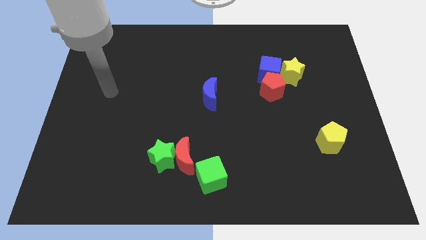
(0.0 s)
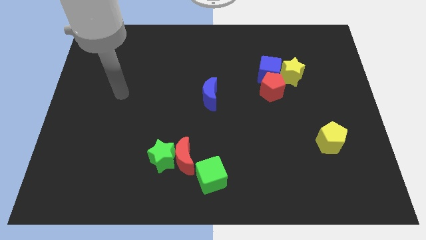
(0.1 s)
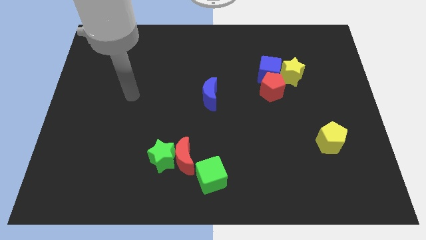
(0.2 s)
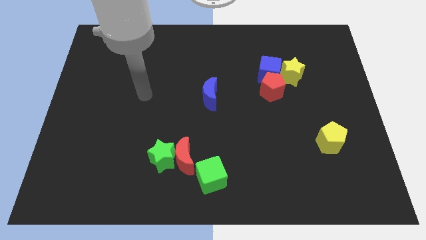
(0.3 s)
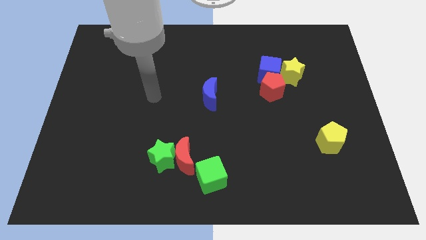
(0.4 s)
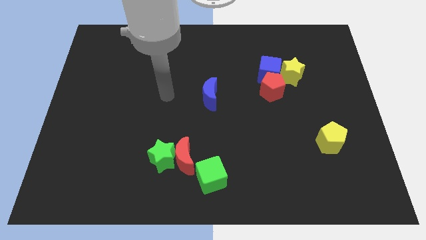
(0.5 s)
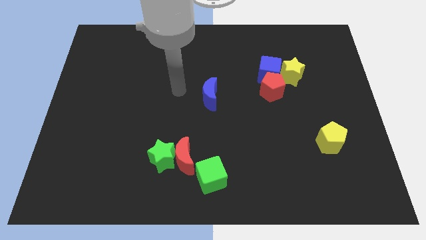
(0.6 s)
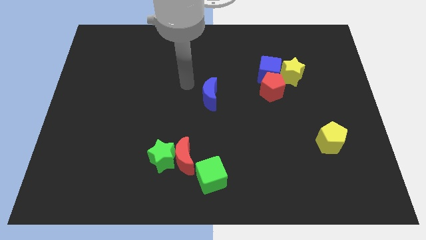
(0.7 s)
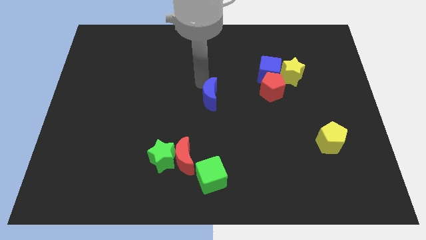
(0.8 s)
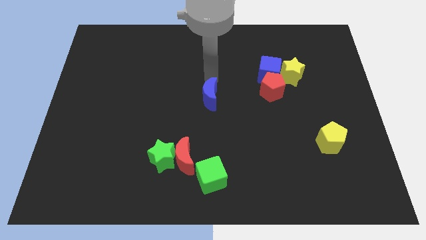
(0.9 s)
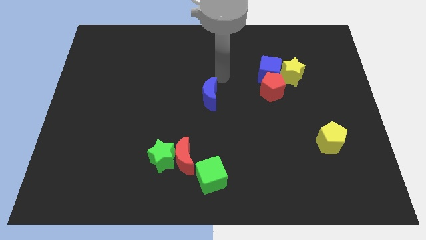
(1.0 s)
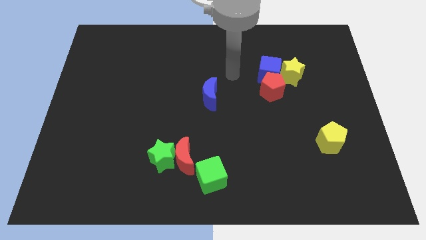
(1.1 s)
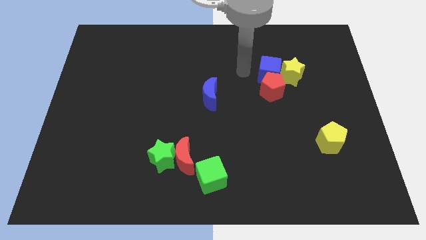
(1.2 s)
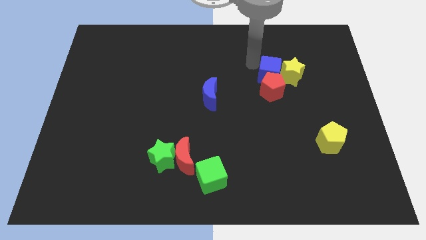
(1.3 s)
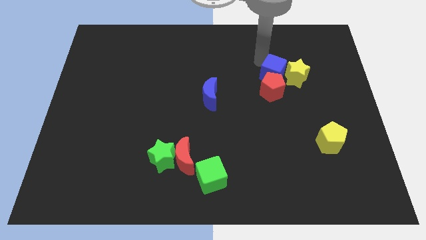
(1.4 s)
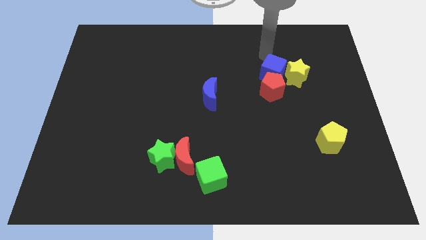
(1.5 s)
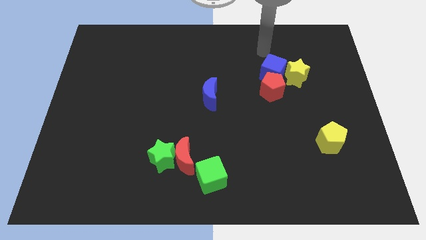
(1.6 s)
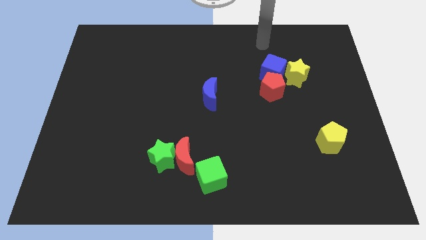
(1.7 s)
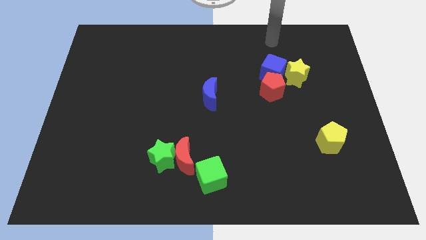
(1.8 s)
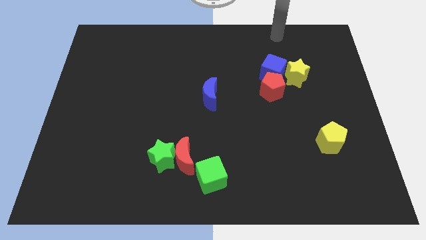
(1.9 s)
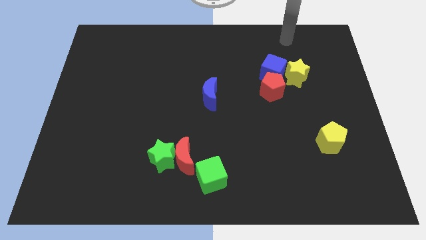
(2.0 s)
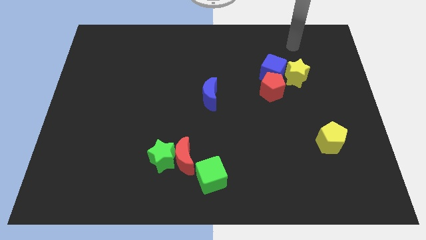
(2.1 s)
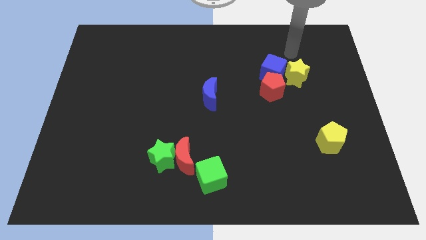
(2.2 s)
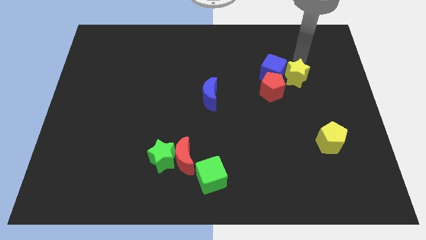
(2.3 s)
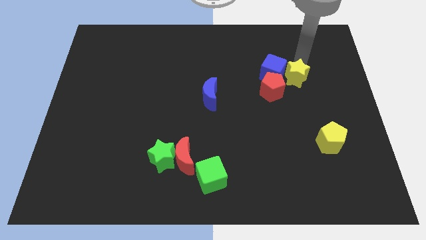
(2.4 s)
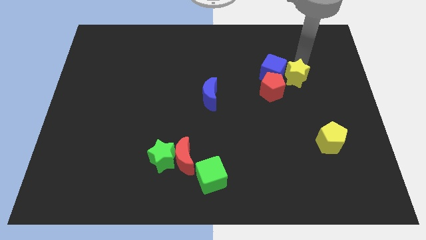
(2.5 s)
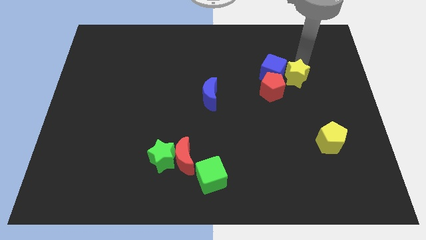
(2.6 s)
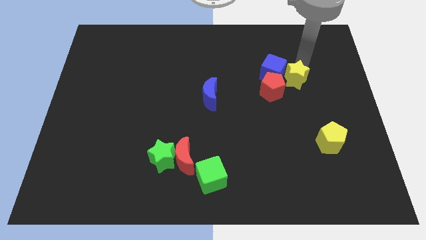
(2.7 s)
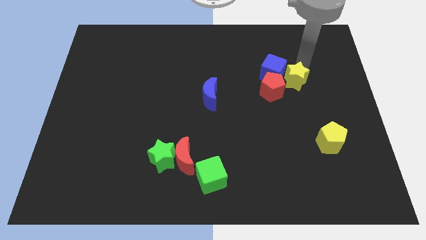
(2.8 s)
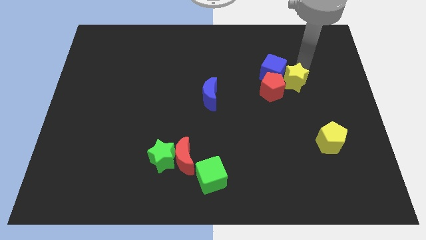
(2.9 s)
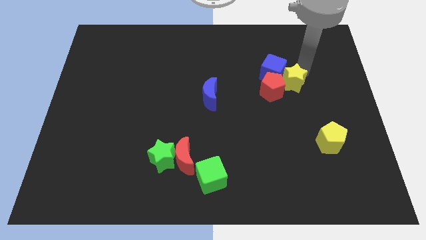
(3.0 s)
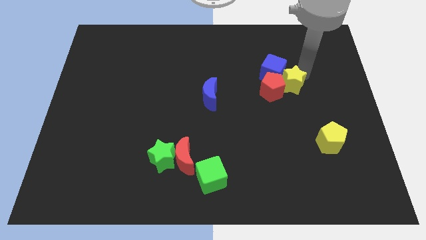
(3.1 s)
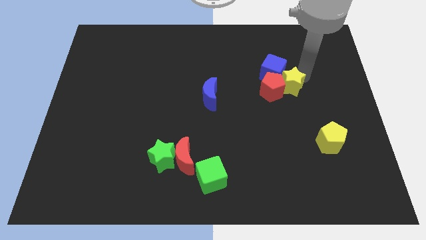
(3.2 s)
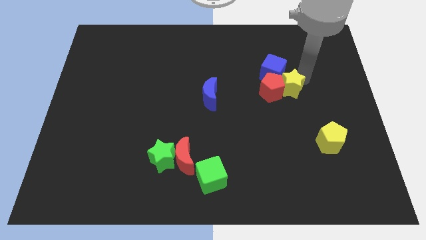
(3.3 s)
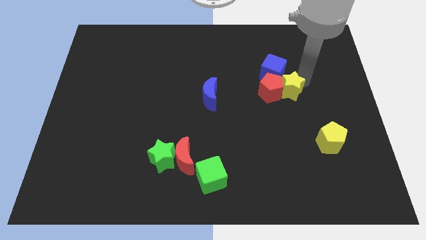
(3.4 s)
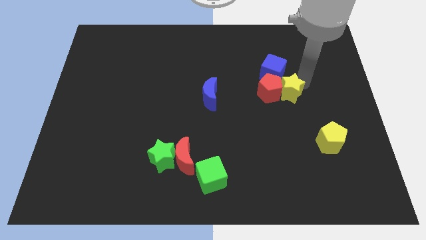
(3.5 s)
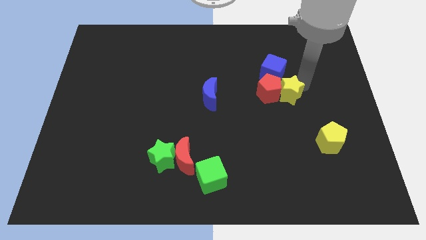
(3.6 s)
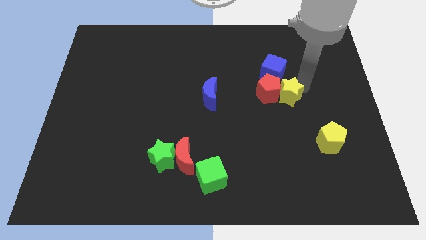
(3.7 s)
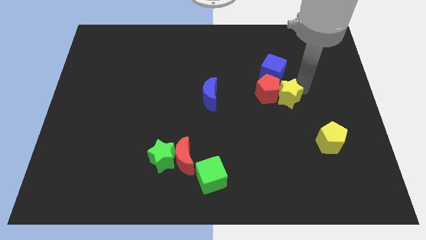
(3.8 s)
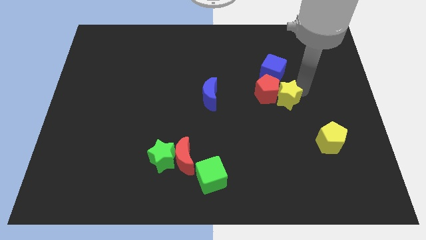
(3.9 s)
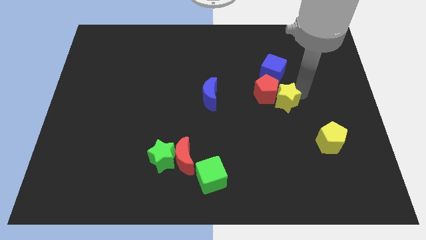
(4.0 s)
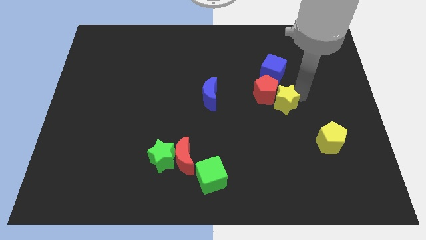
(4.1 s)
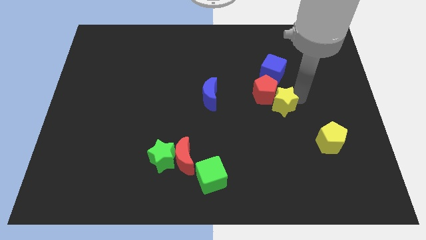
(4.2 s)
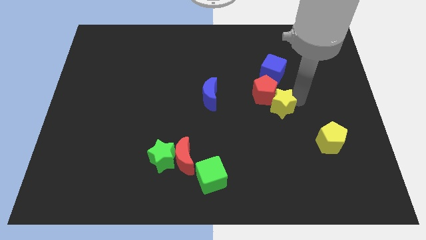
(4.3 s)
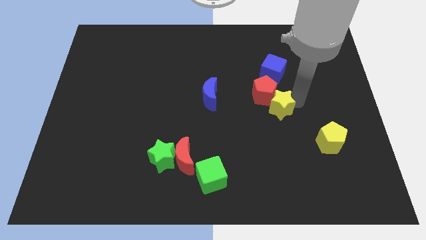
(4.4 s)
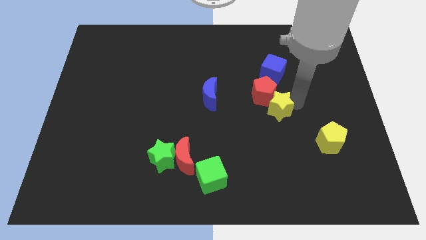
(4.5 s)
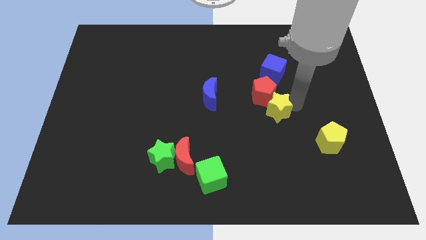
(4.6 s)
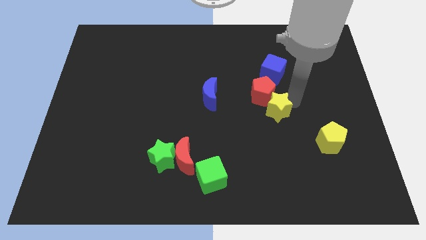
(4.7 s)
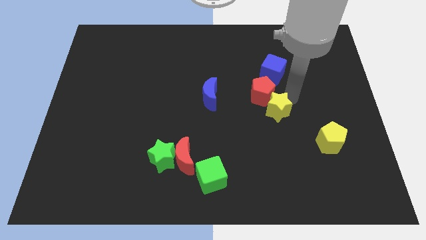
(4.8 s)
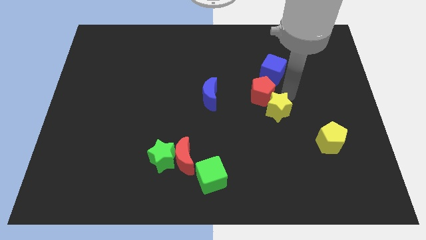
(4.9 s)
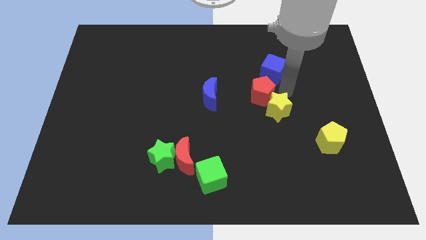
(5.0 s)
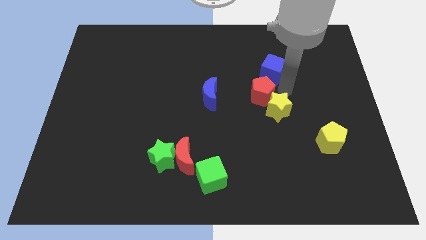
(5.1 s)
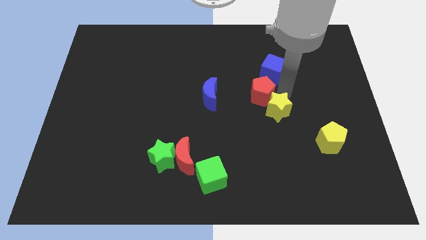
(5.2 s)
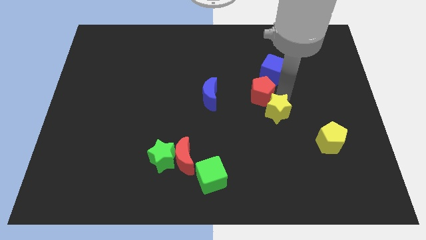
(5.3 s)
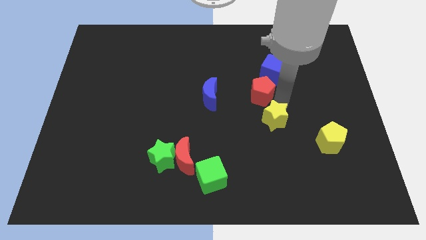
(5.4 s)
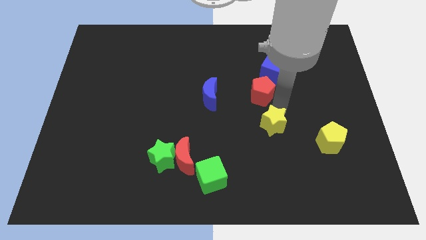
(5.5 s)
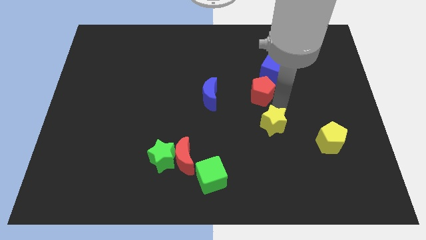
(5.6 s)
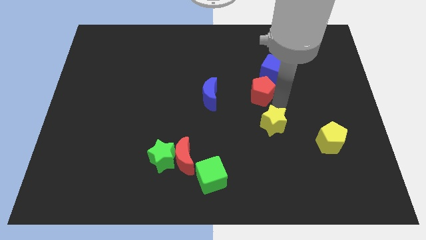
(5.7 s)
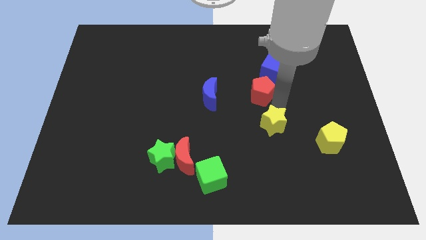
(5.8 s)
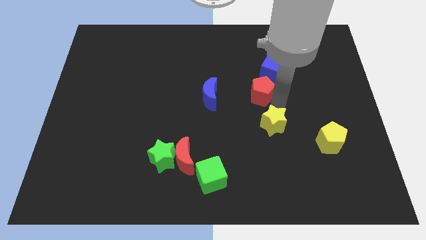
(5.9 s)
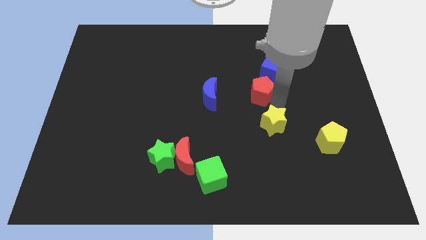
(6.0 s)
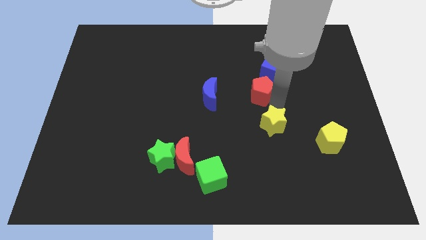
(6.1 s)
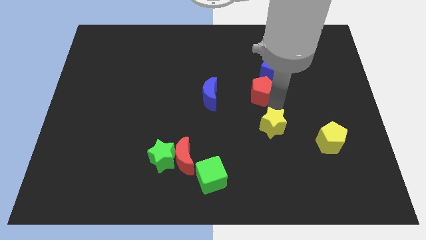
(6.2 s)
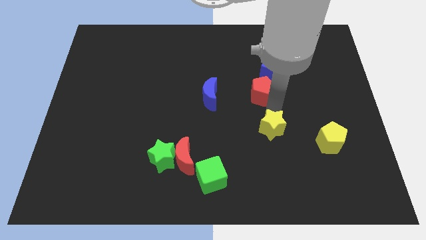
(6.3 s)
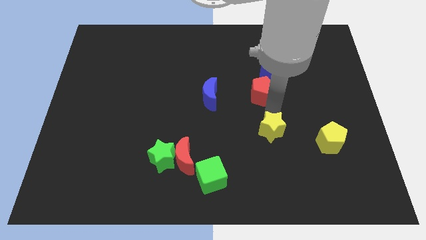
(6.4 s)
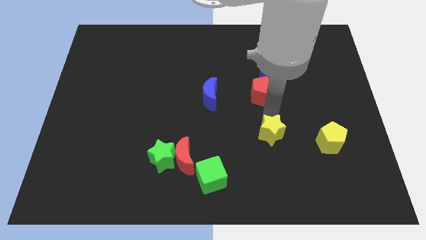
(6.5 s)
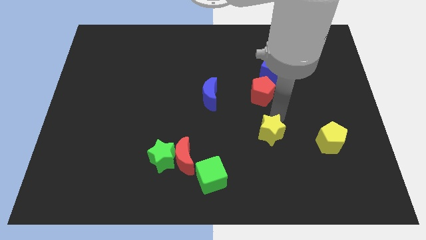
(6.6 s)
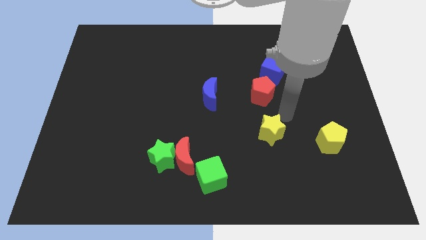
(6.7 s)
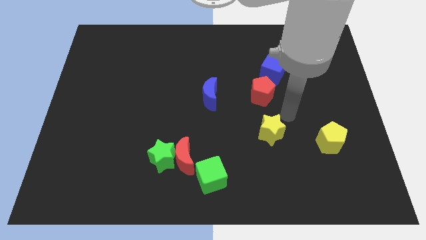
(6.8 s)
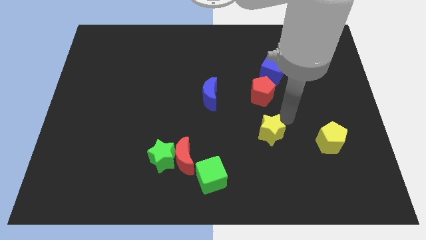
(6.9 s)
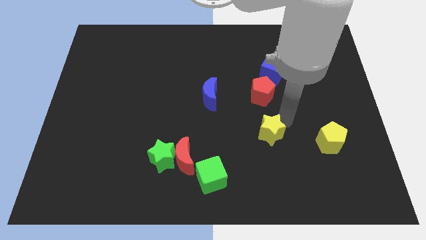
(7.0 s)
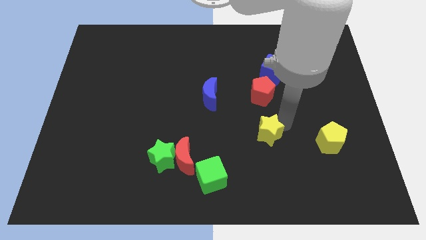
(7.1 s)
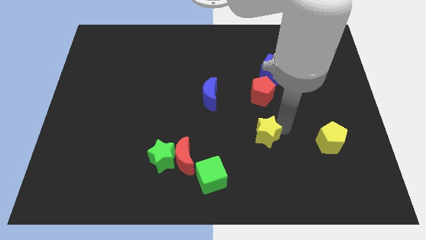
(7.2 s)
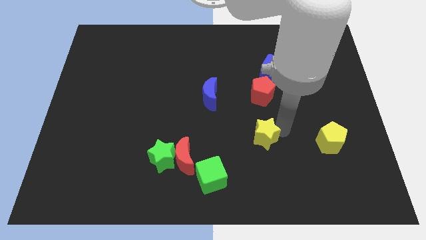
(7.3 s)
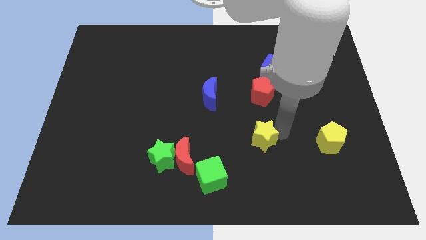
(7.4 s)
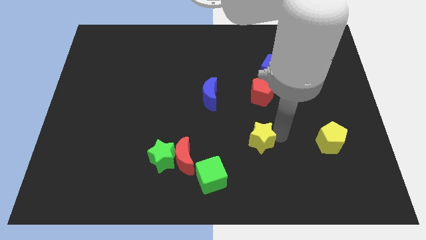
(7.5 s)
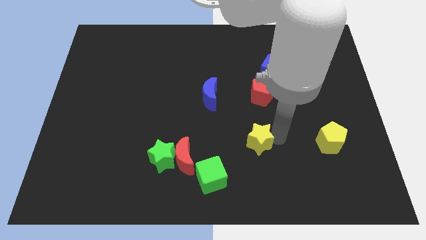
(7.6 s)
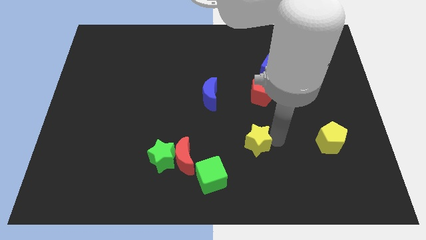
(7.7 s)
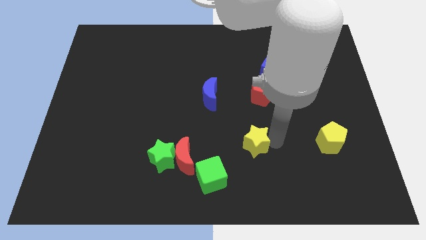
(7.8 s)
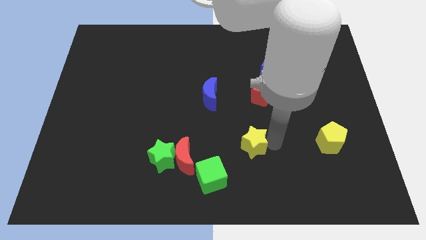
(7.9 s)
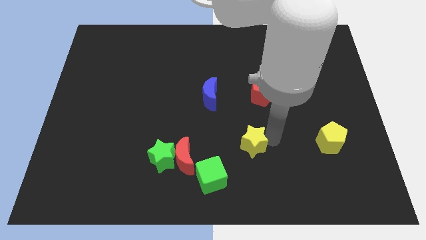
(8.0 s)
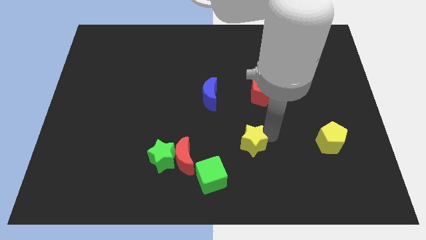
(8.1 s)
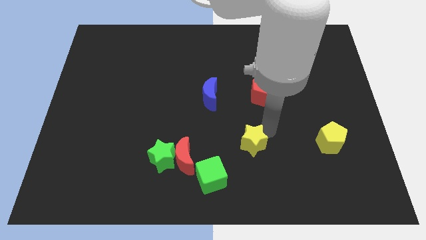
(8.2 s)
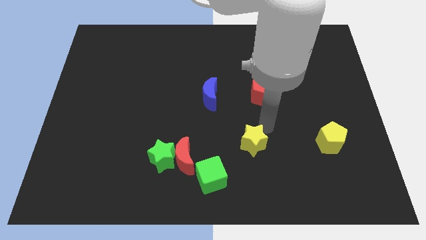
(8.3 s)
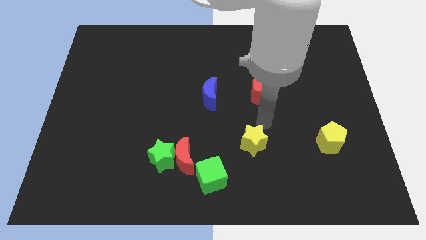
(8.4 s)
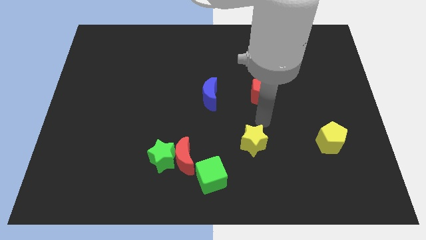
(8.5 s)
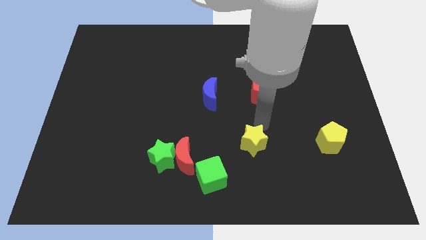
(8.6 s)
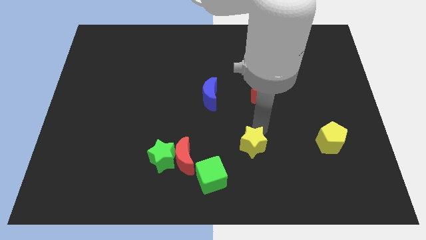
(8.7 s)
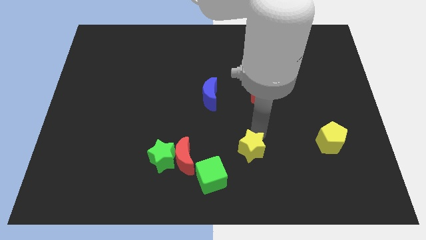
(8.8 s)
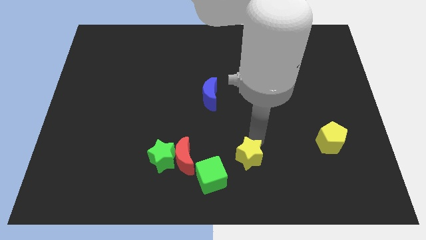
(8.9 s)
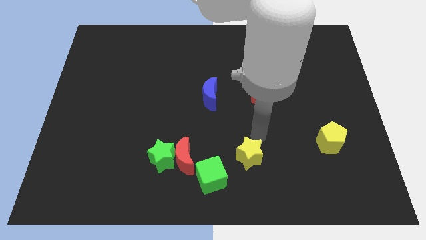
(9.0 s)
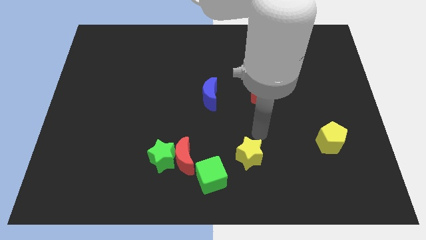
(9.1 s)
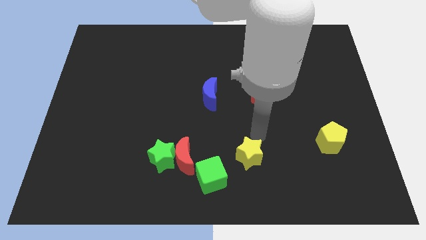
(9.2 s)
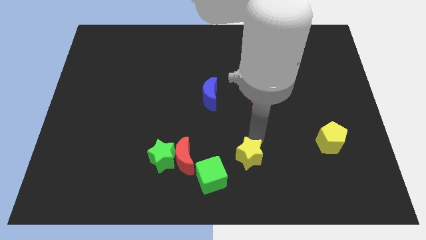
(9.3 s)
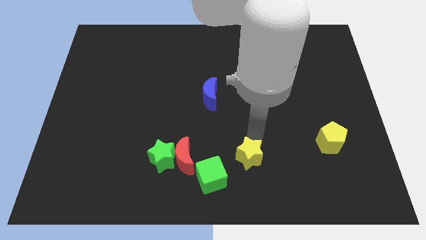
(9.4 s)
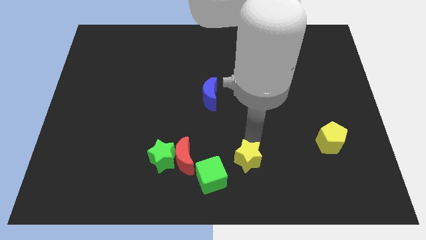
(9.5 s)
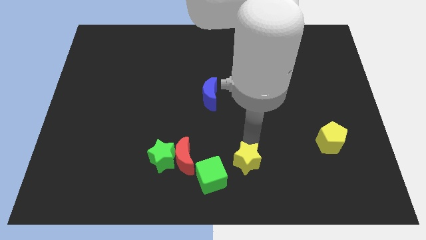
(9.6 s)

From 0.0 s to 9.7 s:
push the yellow star to the bottom side
